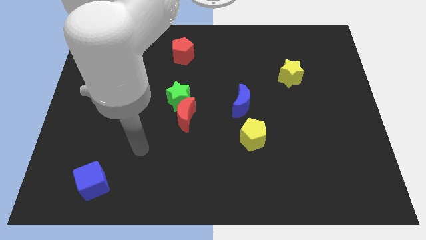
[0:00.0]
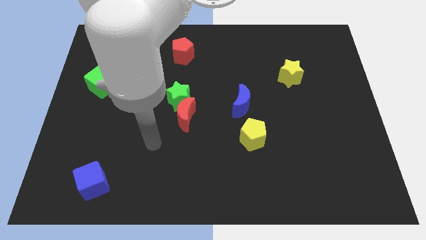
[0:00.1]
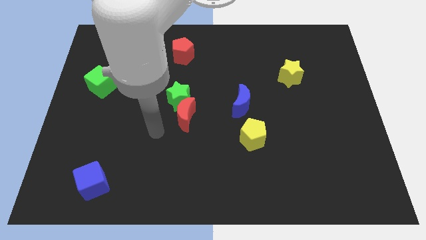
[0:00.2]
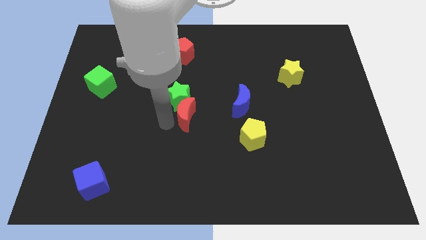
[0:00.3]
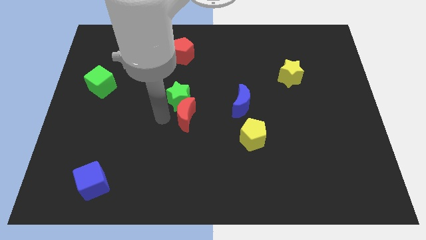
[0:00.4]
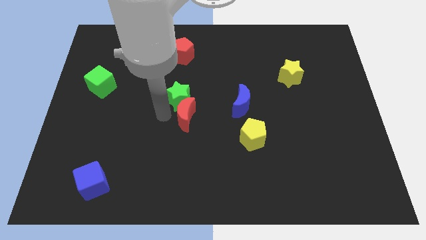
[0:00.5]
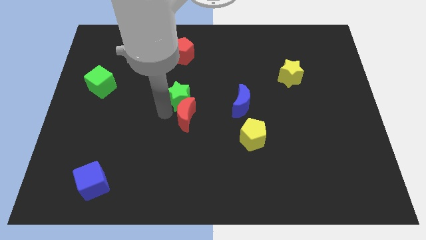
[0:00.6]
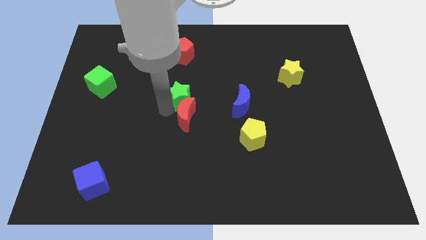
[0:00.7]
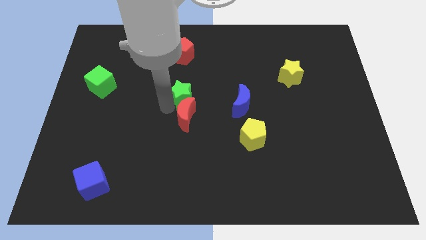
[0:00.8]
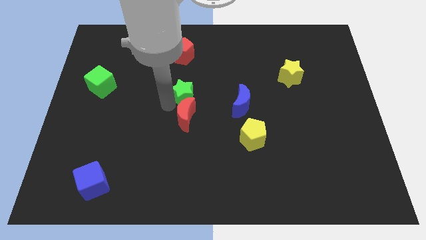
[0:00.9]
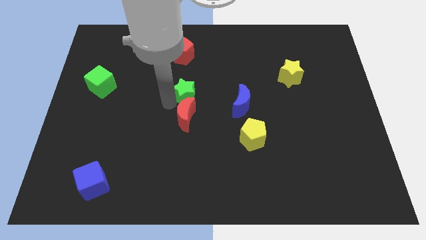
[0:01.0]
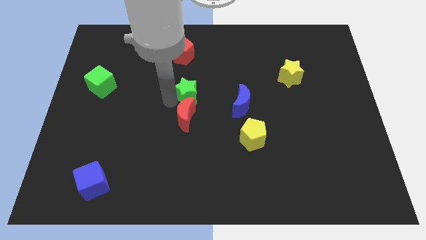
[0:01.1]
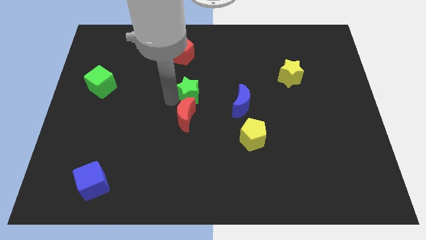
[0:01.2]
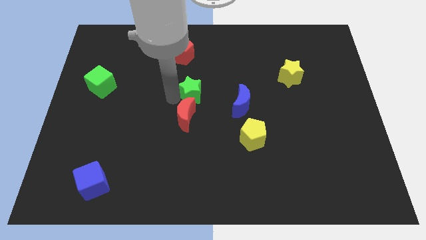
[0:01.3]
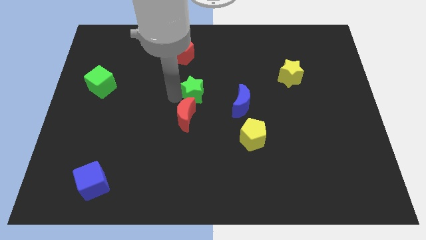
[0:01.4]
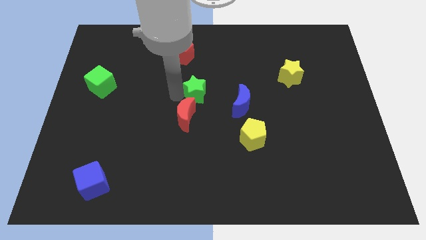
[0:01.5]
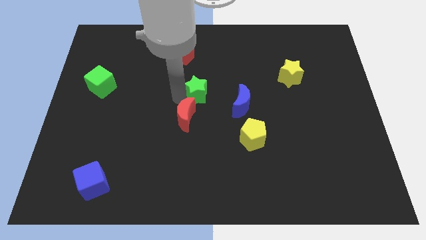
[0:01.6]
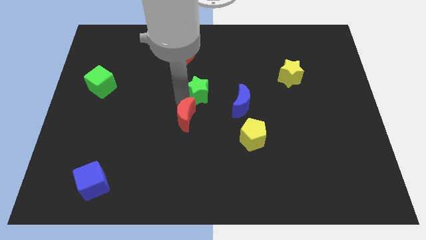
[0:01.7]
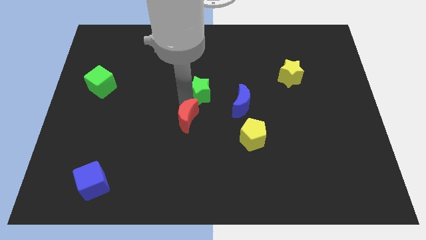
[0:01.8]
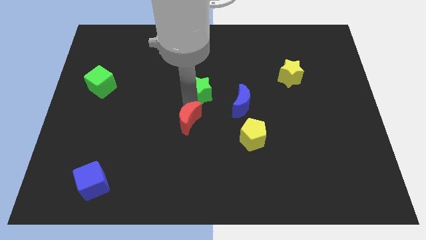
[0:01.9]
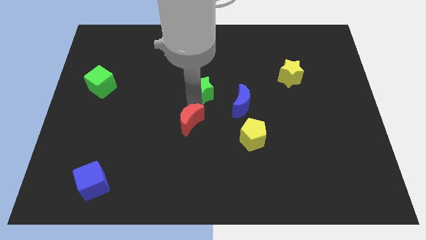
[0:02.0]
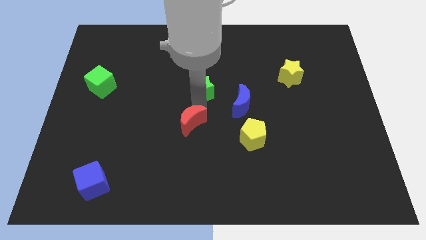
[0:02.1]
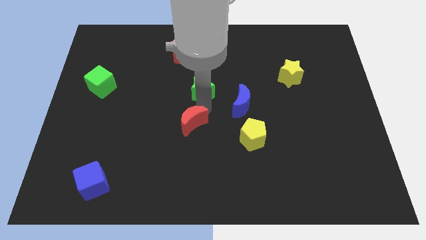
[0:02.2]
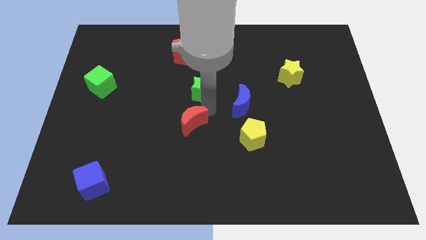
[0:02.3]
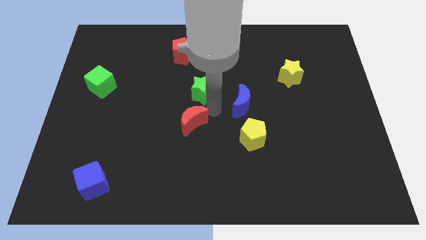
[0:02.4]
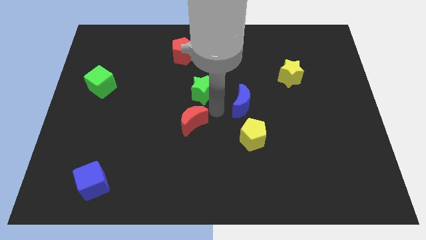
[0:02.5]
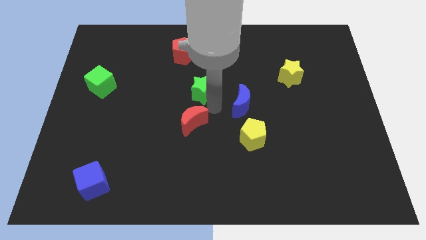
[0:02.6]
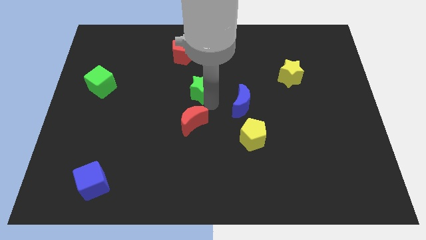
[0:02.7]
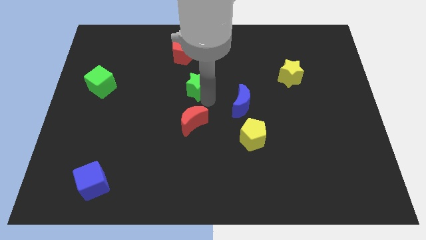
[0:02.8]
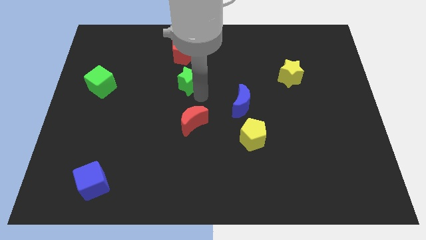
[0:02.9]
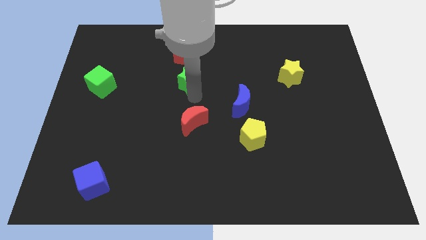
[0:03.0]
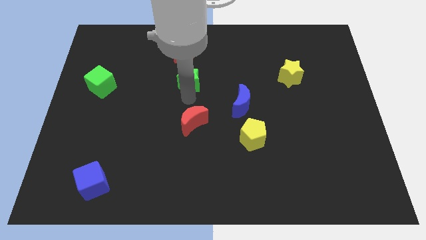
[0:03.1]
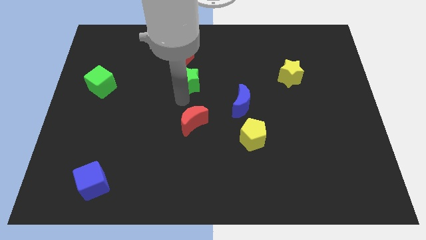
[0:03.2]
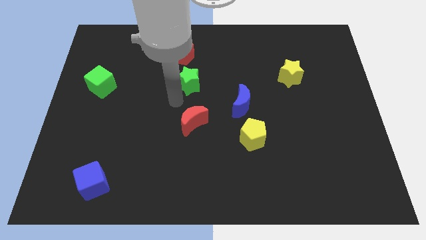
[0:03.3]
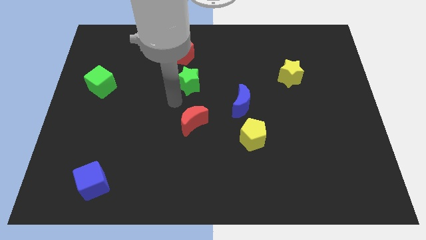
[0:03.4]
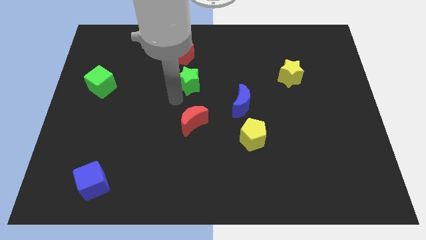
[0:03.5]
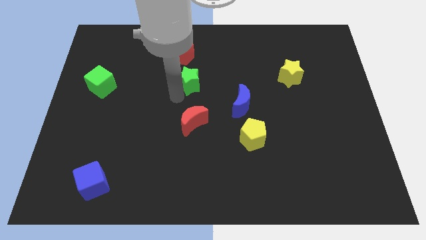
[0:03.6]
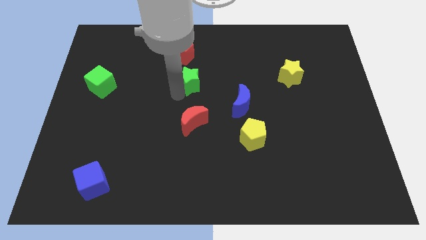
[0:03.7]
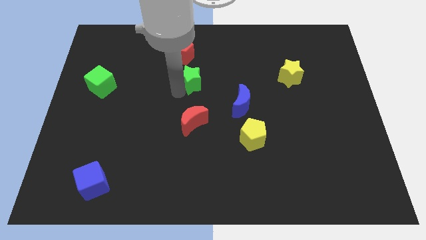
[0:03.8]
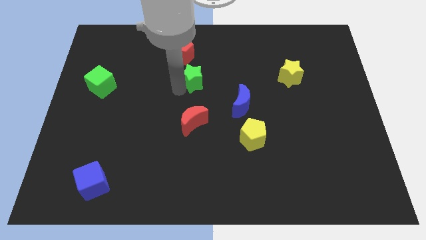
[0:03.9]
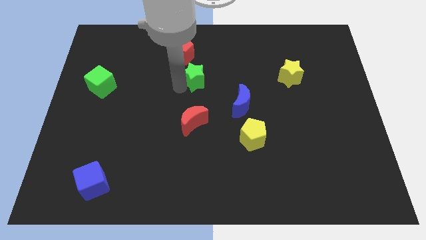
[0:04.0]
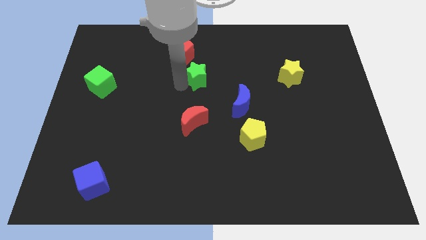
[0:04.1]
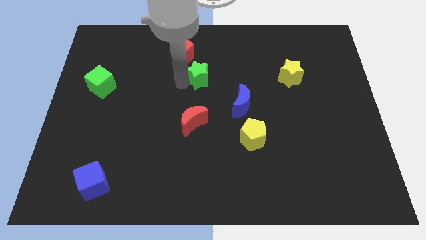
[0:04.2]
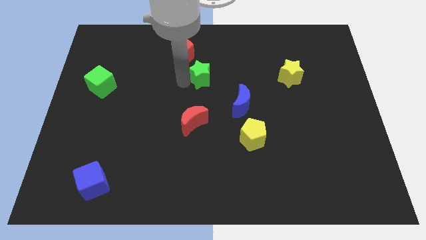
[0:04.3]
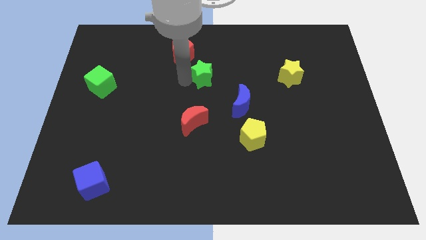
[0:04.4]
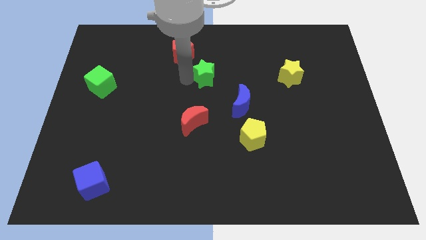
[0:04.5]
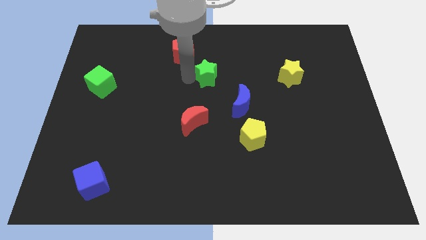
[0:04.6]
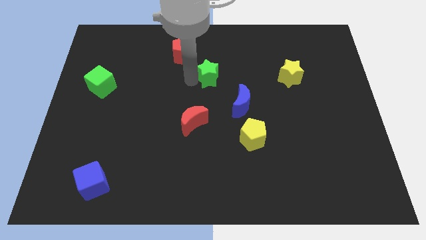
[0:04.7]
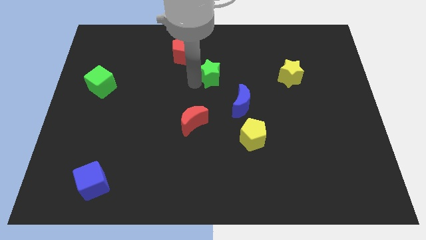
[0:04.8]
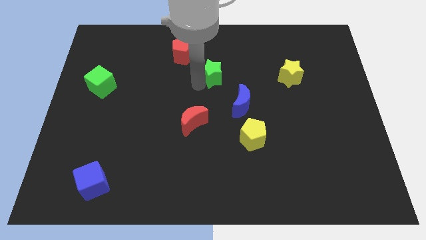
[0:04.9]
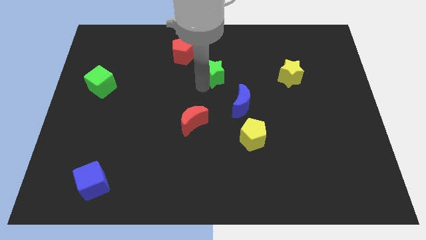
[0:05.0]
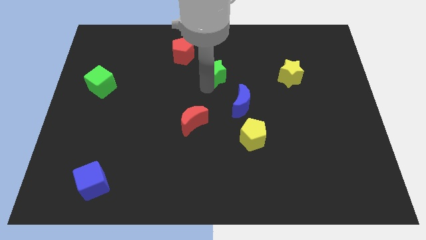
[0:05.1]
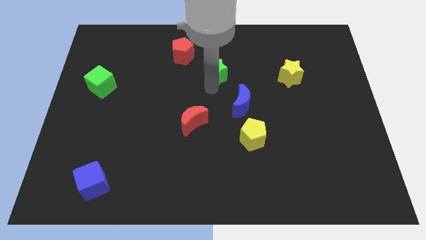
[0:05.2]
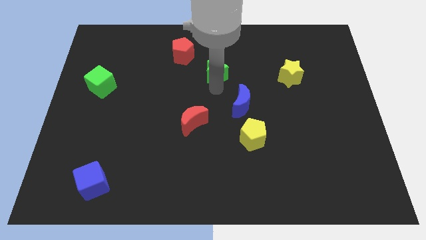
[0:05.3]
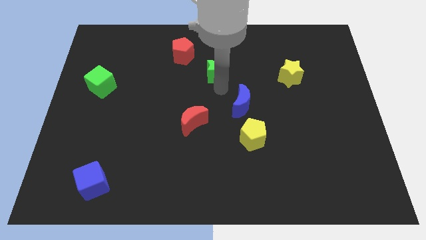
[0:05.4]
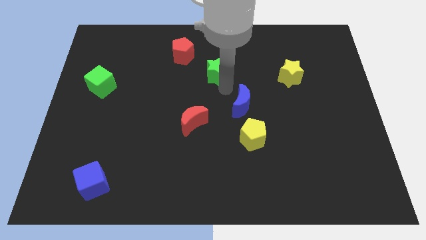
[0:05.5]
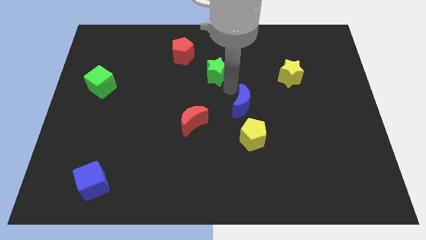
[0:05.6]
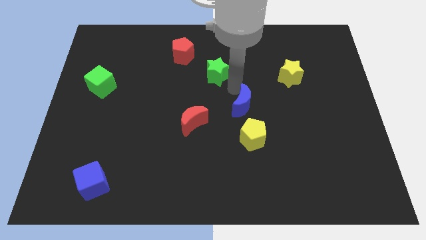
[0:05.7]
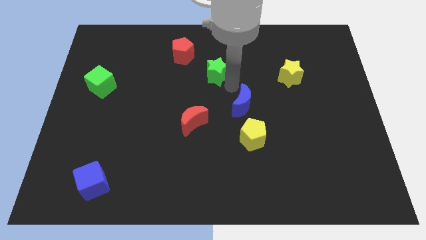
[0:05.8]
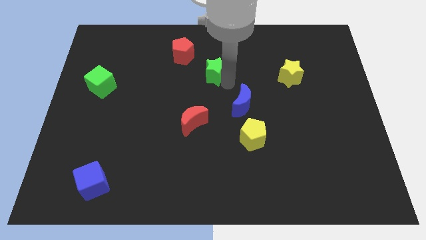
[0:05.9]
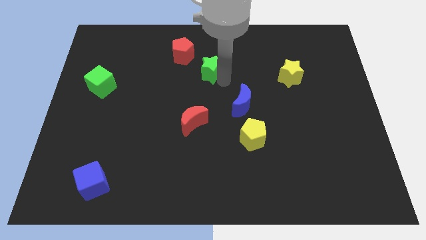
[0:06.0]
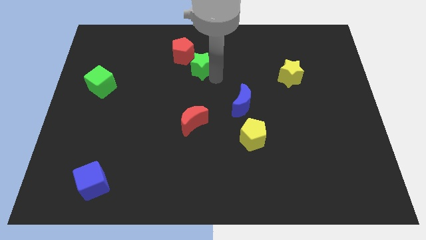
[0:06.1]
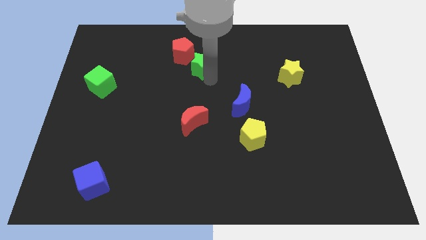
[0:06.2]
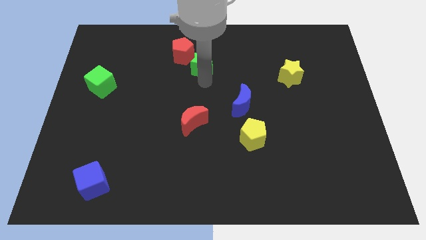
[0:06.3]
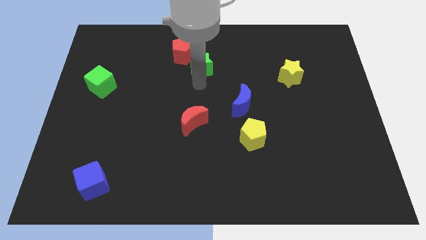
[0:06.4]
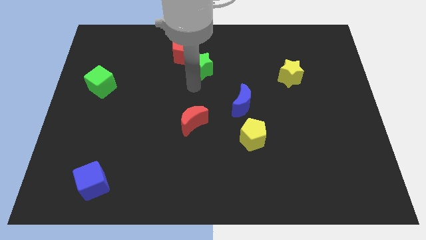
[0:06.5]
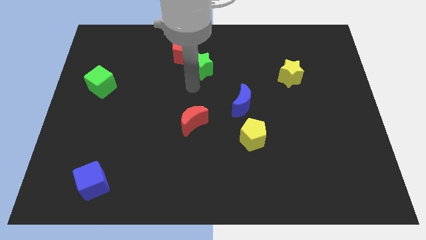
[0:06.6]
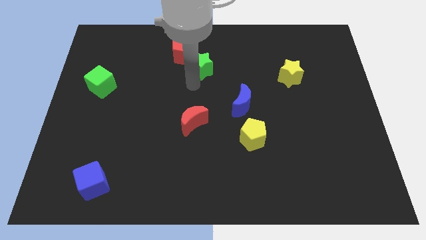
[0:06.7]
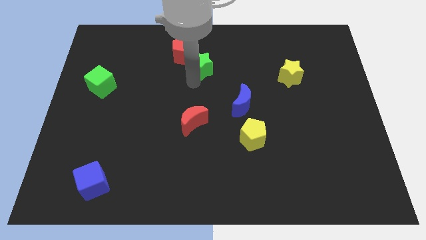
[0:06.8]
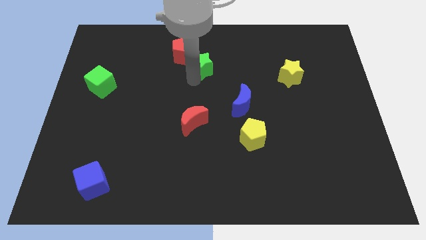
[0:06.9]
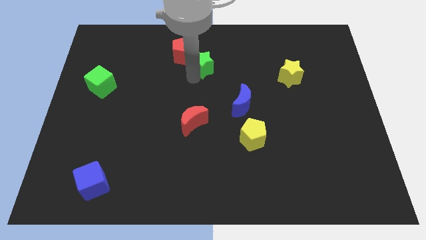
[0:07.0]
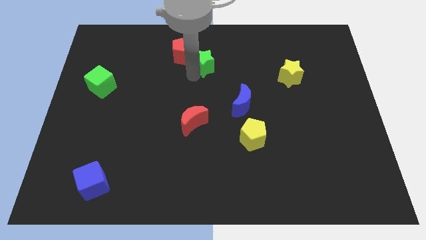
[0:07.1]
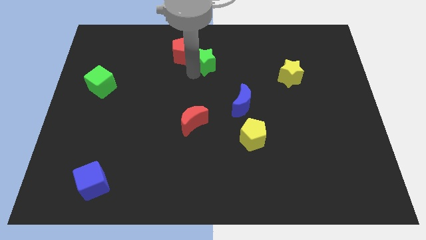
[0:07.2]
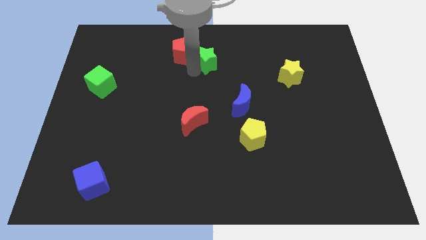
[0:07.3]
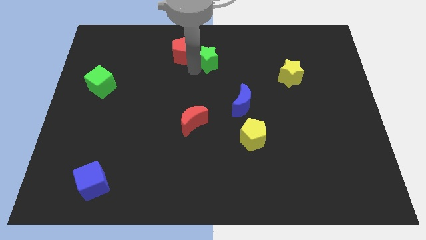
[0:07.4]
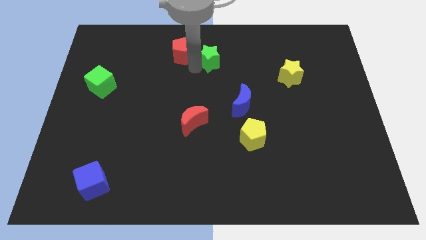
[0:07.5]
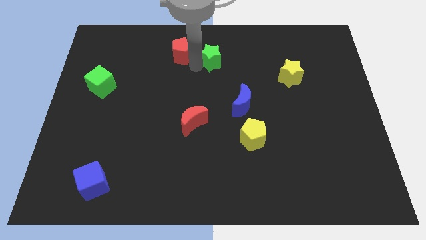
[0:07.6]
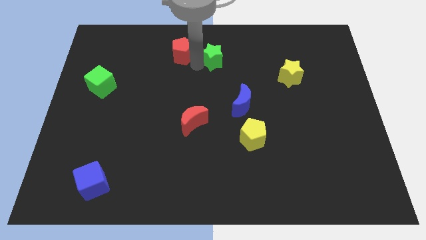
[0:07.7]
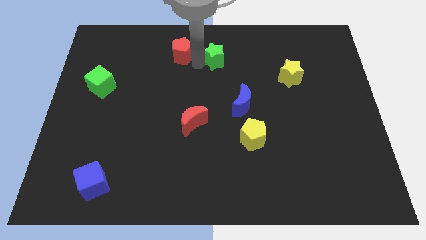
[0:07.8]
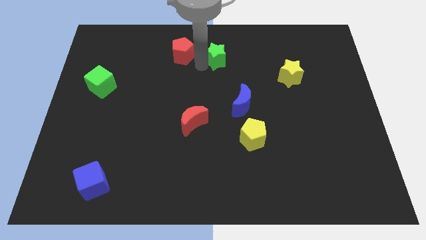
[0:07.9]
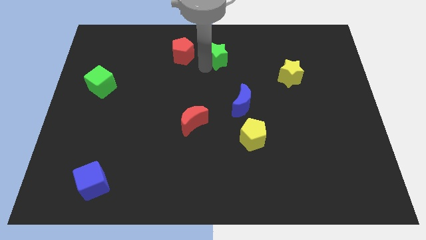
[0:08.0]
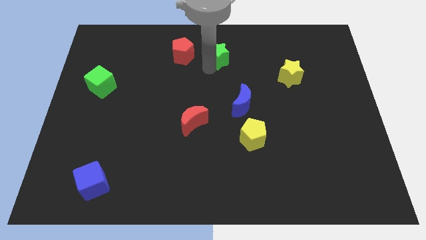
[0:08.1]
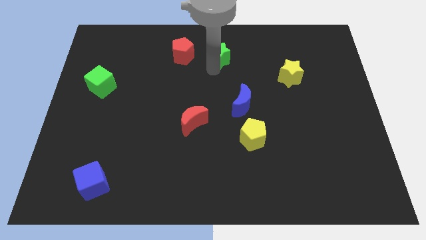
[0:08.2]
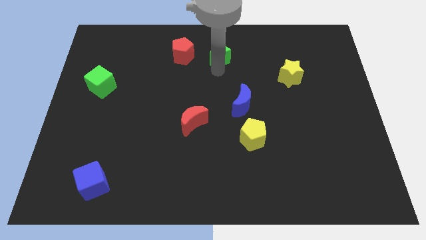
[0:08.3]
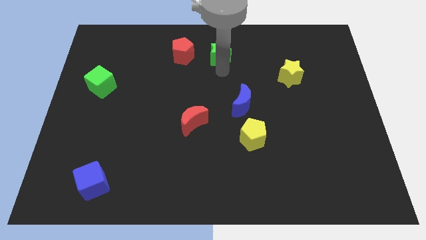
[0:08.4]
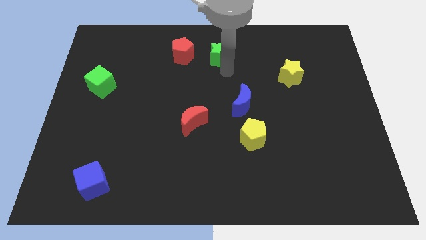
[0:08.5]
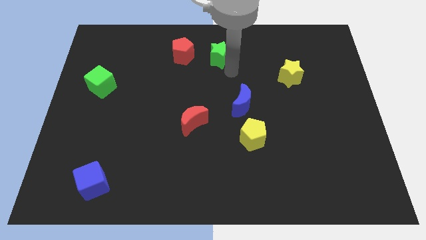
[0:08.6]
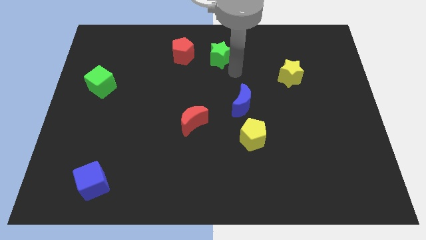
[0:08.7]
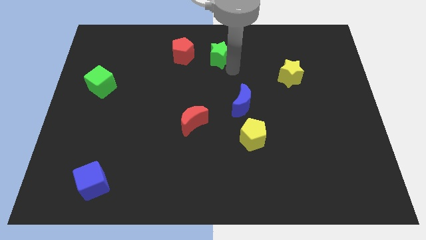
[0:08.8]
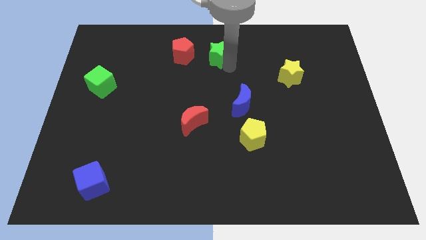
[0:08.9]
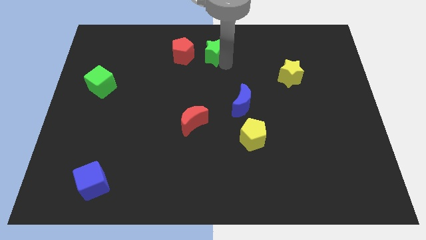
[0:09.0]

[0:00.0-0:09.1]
move the green star to the towards your base
